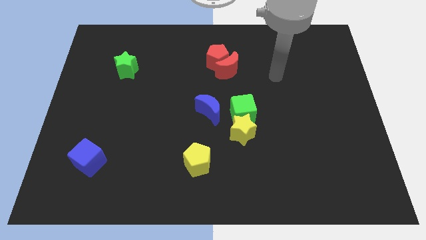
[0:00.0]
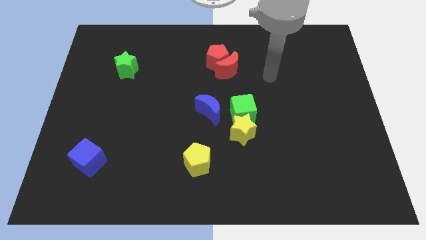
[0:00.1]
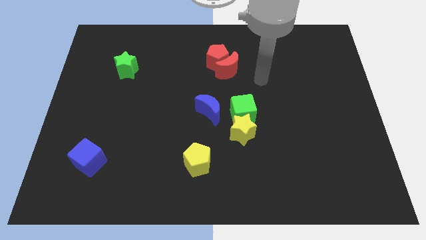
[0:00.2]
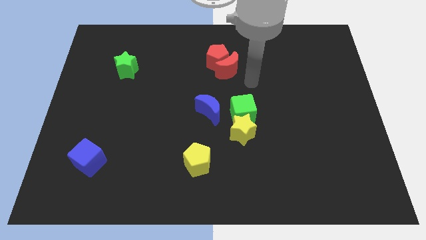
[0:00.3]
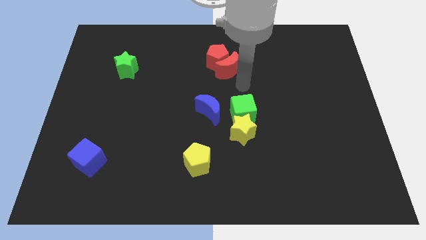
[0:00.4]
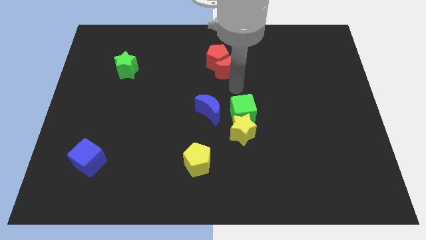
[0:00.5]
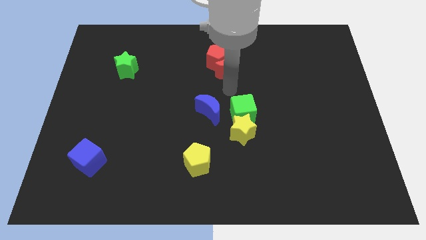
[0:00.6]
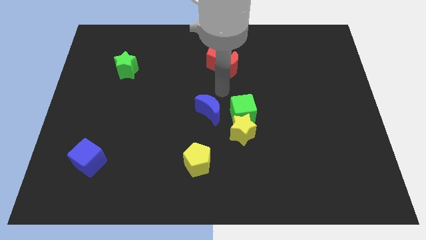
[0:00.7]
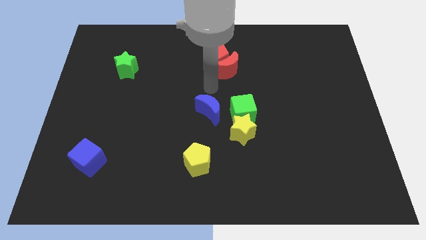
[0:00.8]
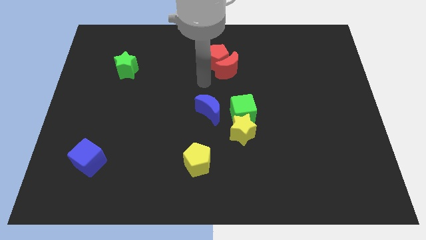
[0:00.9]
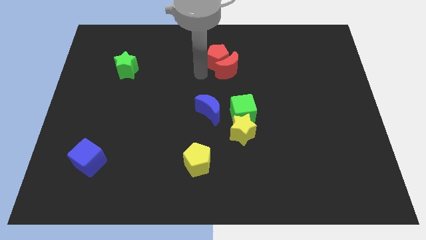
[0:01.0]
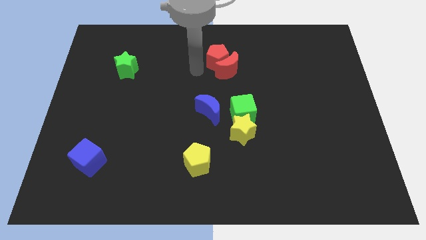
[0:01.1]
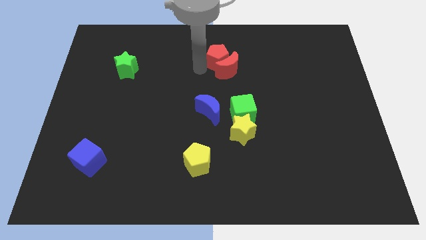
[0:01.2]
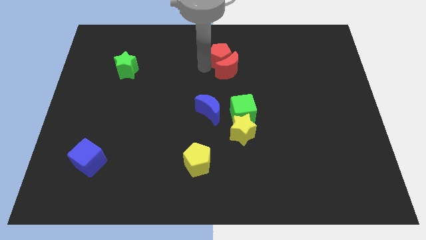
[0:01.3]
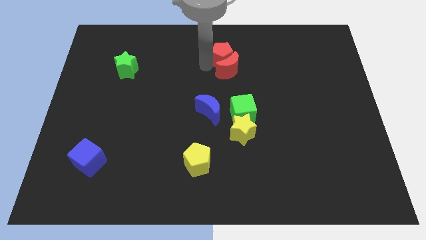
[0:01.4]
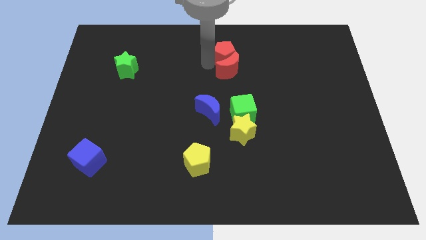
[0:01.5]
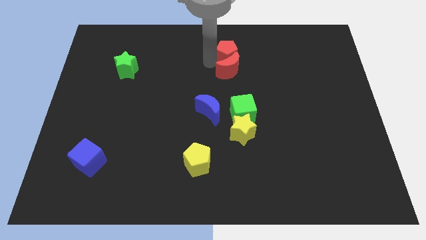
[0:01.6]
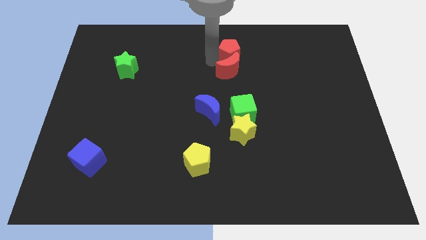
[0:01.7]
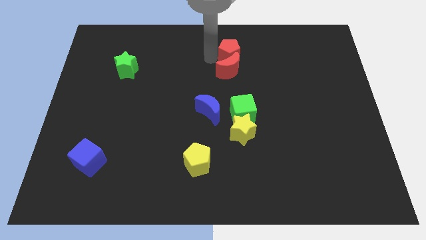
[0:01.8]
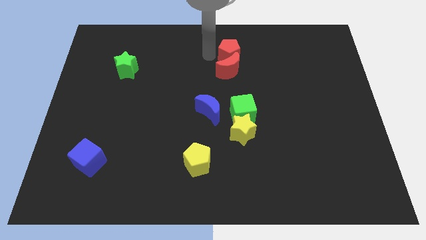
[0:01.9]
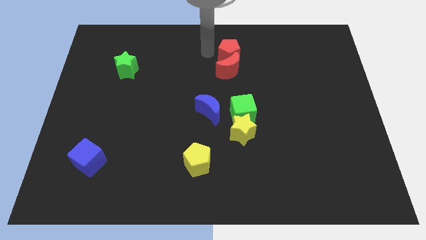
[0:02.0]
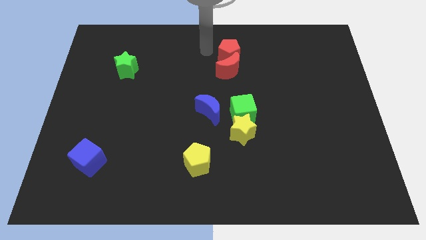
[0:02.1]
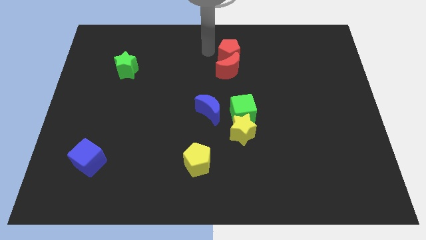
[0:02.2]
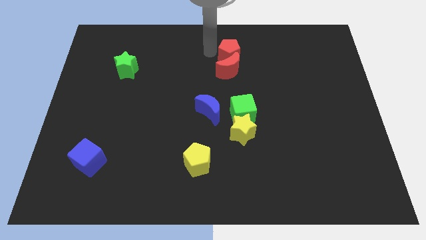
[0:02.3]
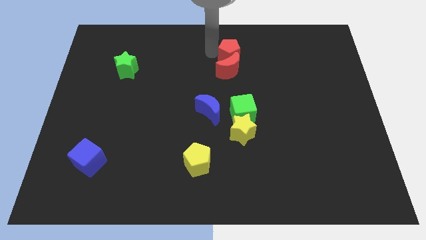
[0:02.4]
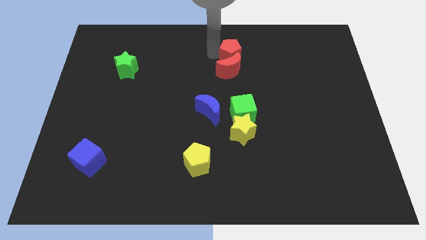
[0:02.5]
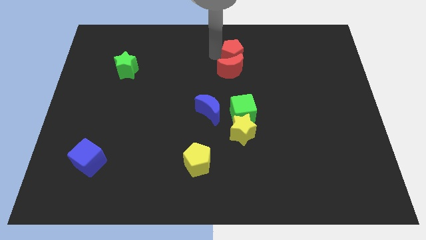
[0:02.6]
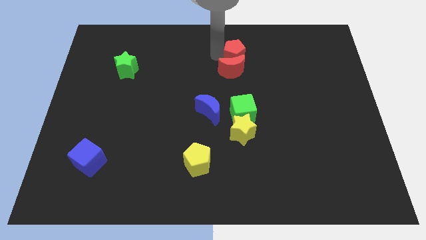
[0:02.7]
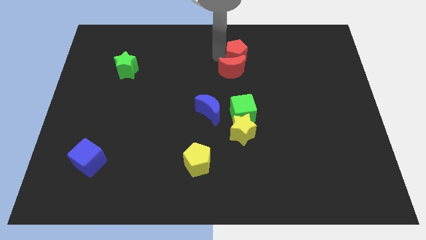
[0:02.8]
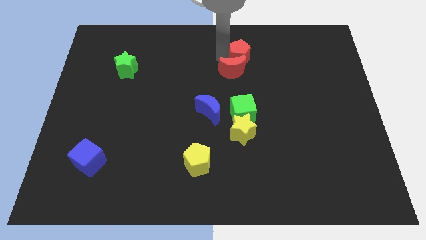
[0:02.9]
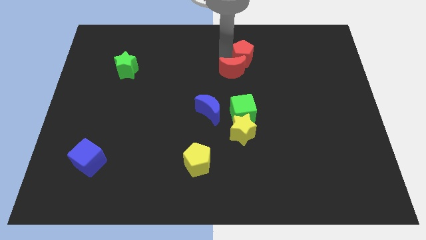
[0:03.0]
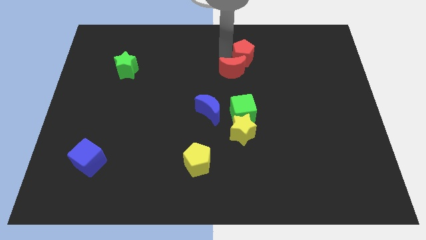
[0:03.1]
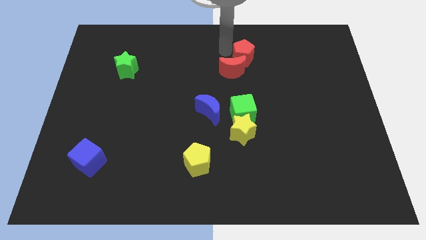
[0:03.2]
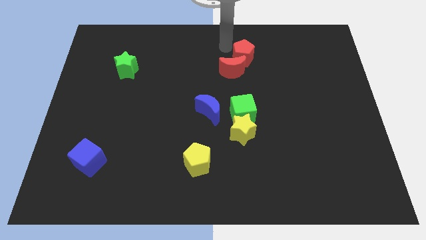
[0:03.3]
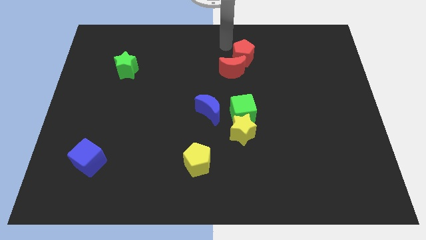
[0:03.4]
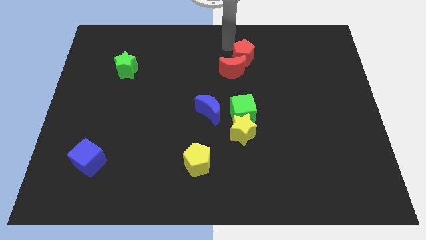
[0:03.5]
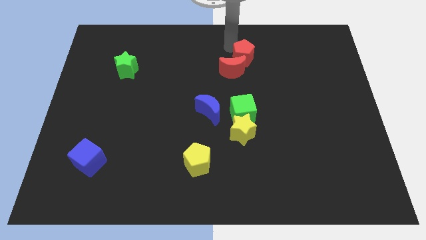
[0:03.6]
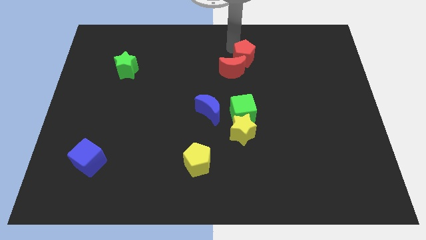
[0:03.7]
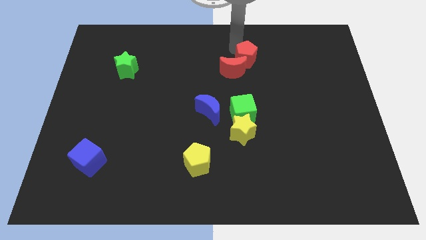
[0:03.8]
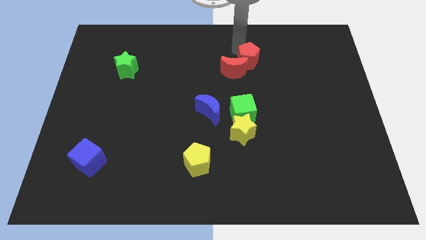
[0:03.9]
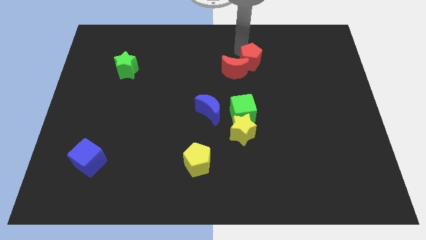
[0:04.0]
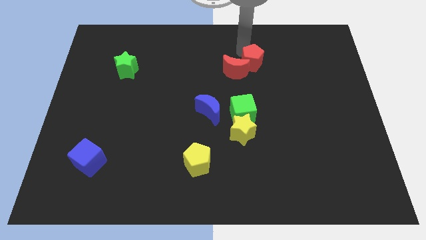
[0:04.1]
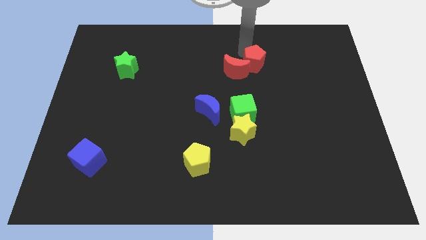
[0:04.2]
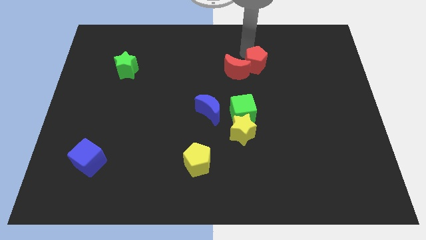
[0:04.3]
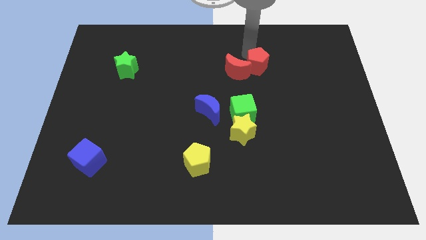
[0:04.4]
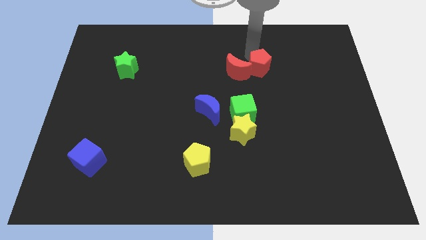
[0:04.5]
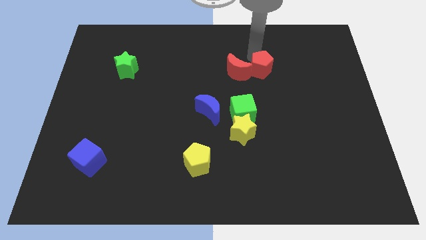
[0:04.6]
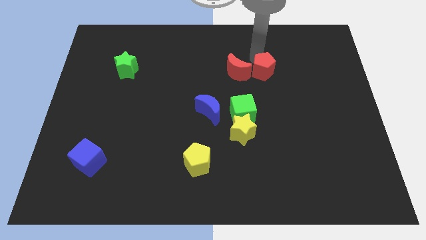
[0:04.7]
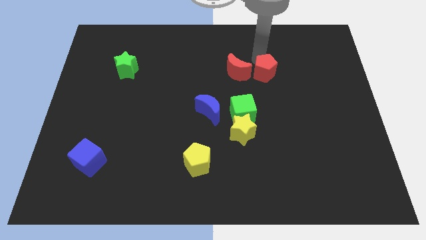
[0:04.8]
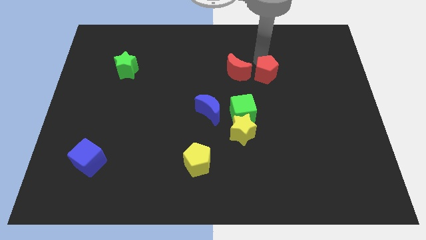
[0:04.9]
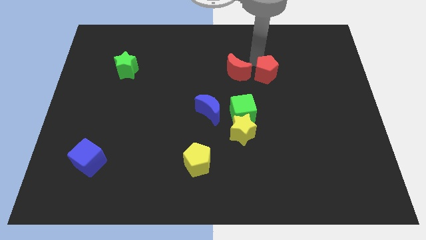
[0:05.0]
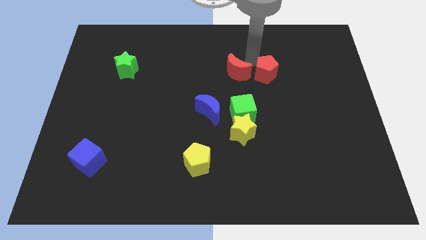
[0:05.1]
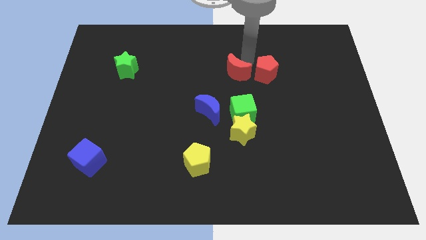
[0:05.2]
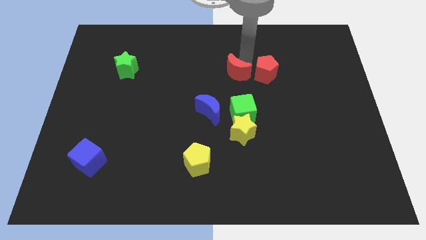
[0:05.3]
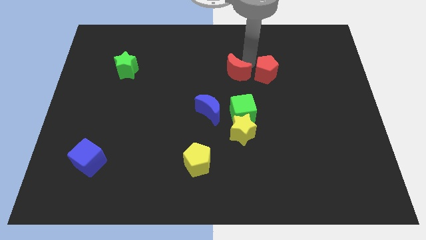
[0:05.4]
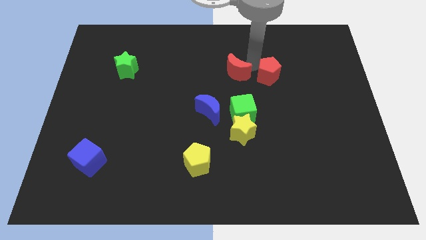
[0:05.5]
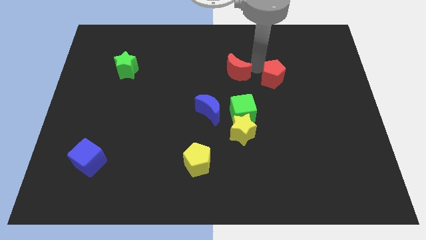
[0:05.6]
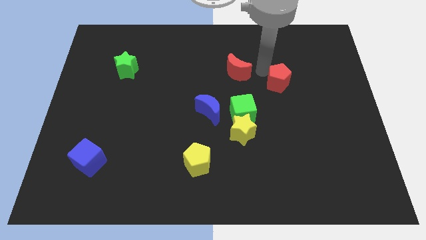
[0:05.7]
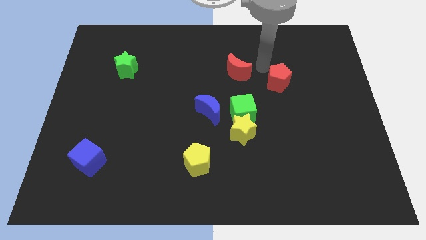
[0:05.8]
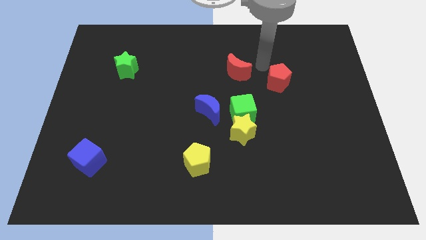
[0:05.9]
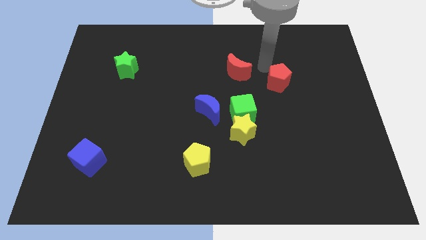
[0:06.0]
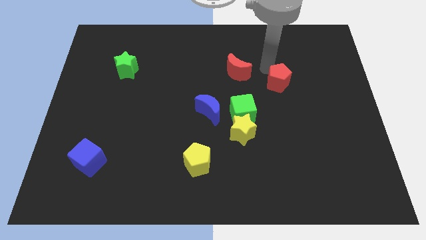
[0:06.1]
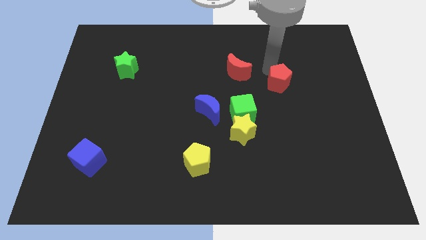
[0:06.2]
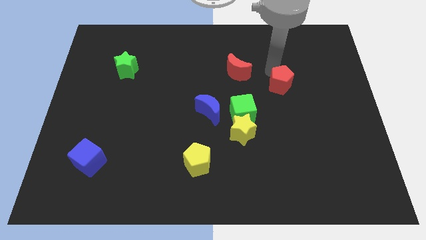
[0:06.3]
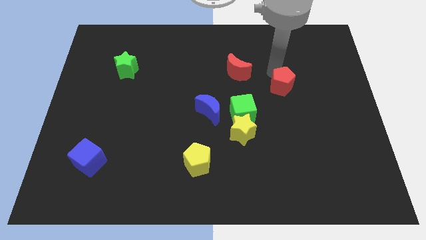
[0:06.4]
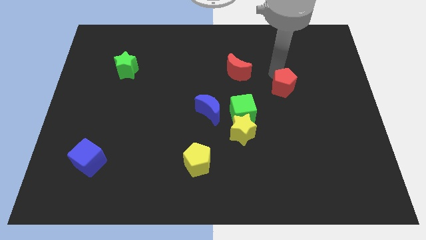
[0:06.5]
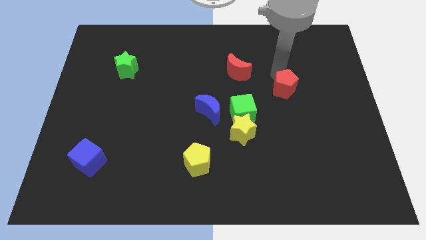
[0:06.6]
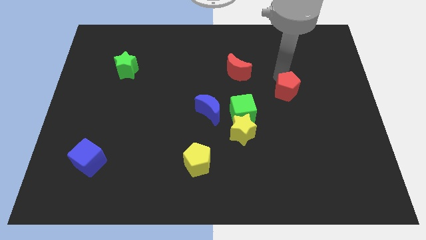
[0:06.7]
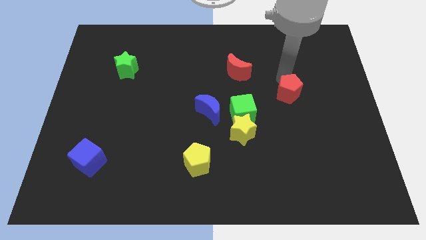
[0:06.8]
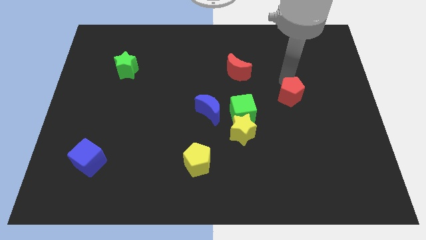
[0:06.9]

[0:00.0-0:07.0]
move the red pentagon down and to the right

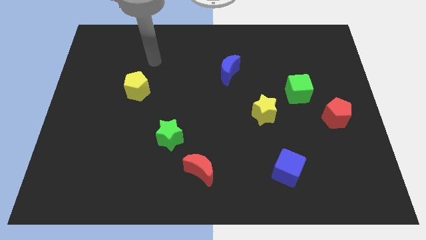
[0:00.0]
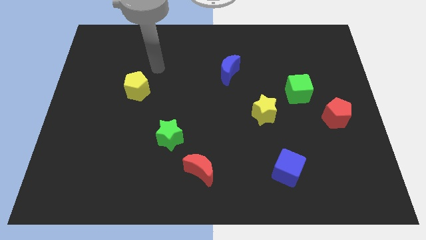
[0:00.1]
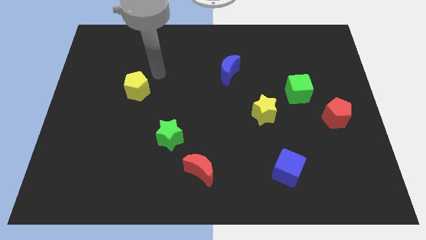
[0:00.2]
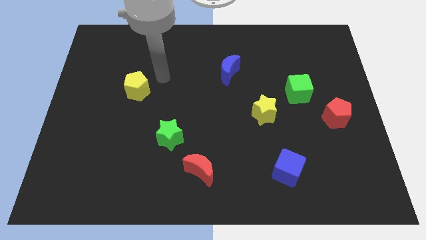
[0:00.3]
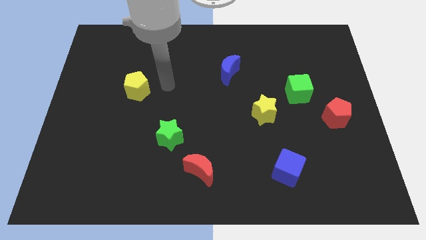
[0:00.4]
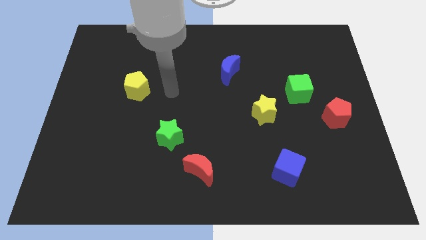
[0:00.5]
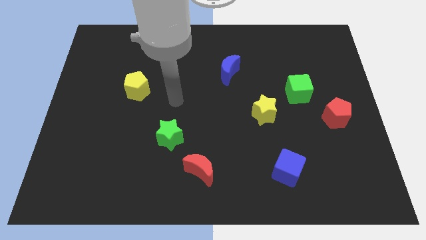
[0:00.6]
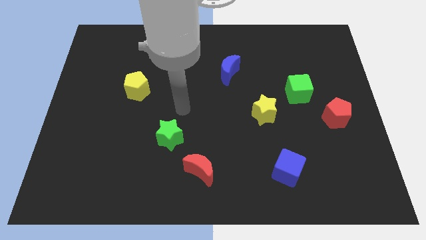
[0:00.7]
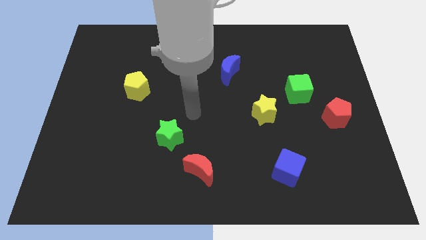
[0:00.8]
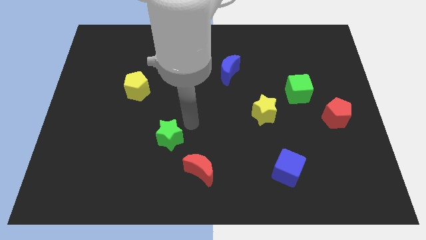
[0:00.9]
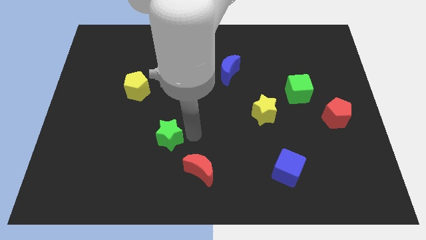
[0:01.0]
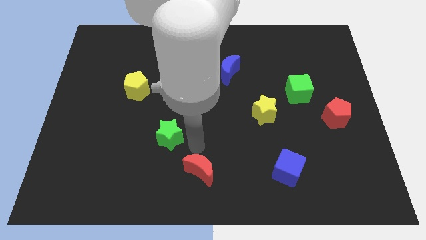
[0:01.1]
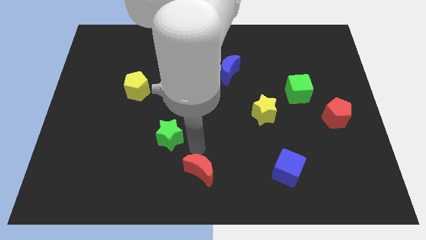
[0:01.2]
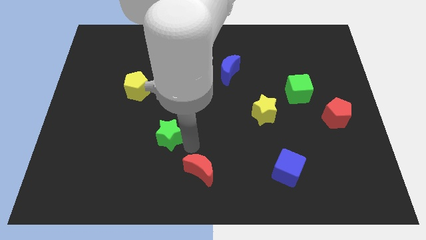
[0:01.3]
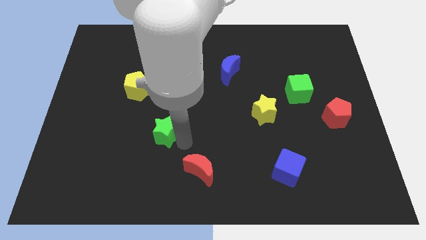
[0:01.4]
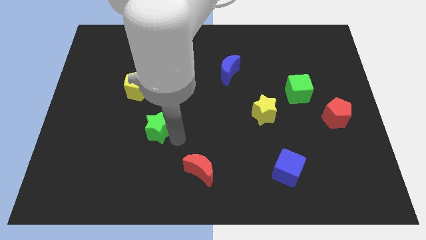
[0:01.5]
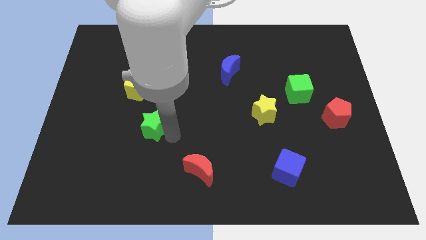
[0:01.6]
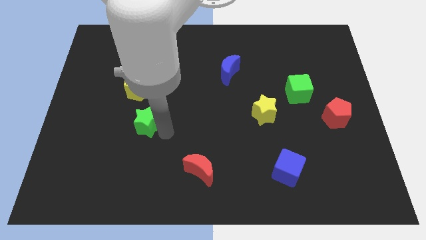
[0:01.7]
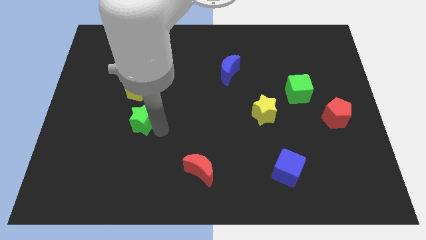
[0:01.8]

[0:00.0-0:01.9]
slightly slide the green star up and left diagonally
